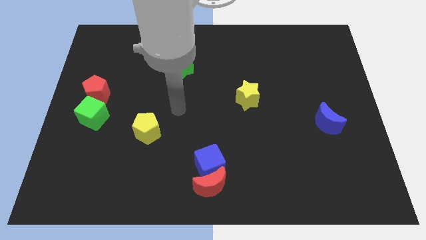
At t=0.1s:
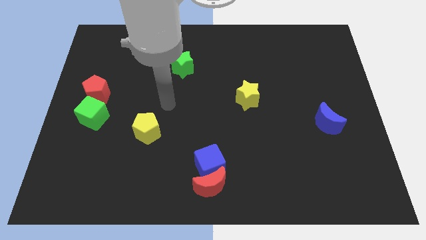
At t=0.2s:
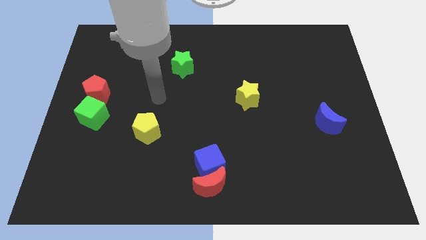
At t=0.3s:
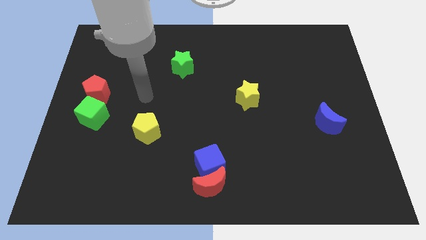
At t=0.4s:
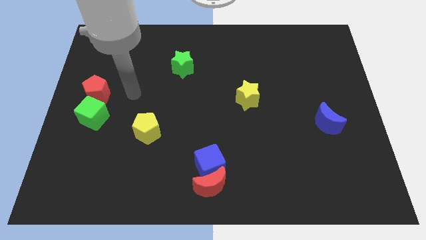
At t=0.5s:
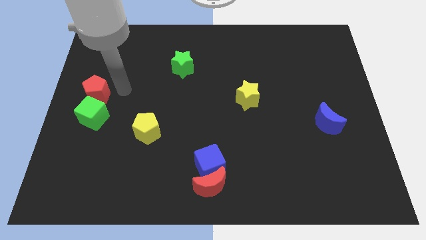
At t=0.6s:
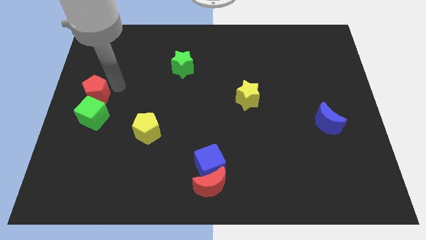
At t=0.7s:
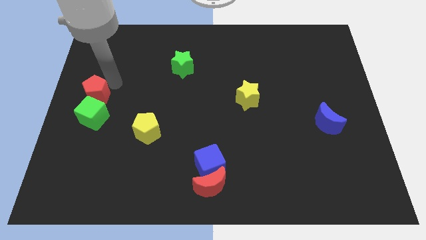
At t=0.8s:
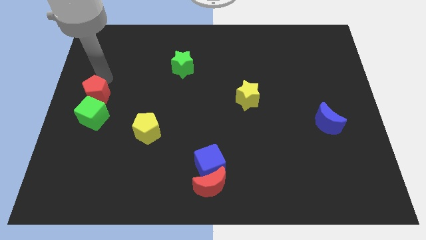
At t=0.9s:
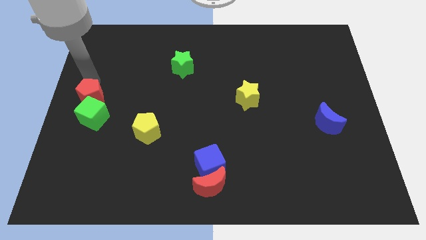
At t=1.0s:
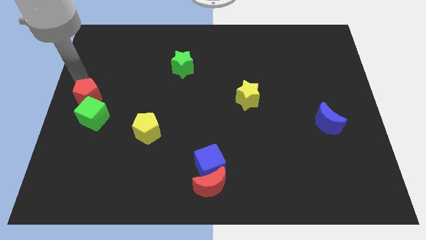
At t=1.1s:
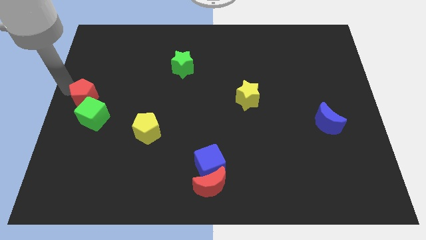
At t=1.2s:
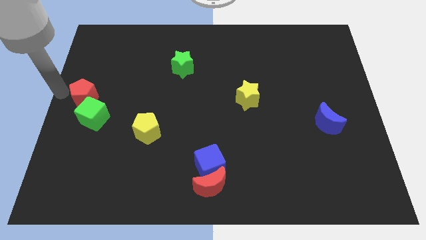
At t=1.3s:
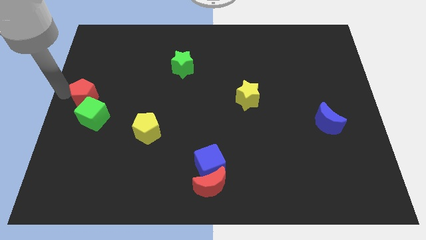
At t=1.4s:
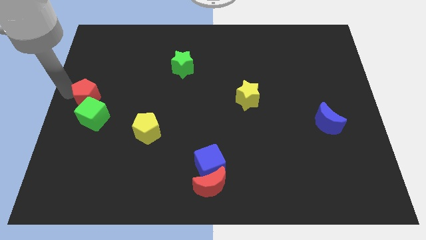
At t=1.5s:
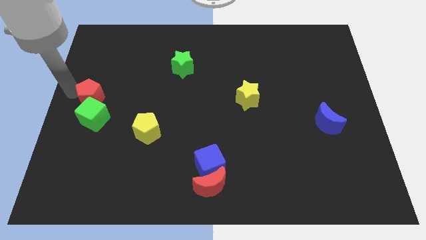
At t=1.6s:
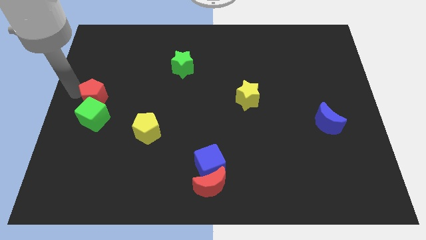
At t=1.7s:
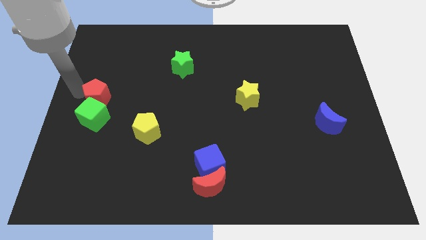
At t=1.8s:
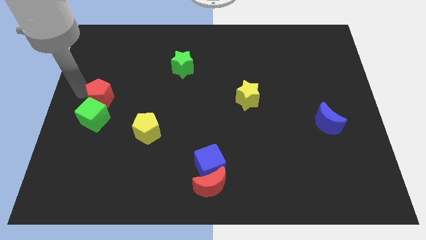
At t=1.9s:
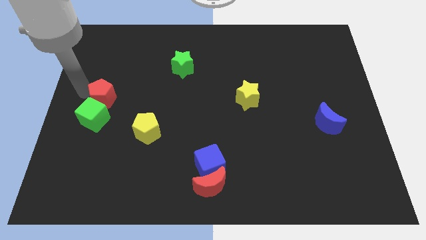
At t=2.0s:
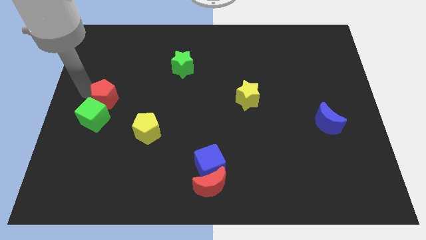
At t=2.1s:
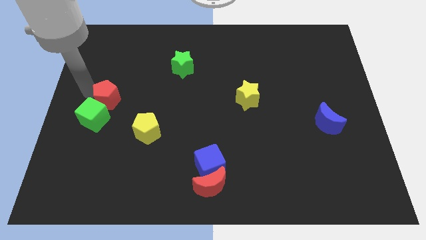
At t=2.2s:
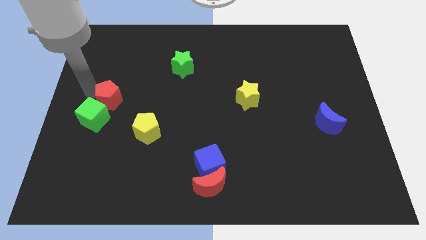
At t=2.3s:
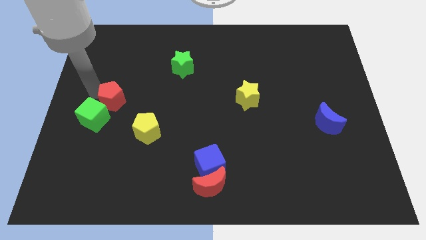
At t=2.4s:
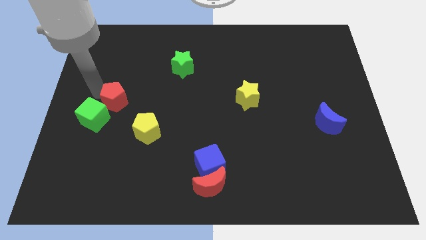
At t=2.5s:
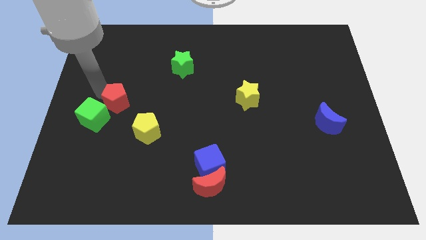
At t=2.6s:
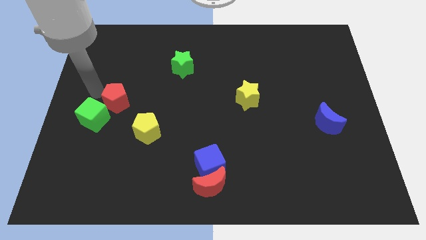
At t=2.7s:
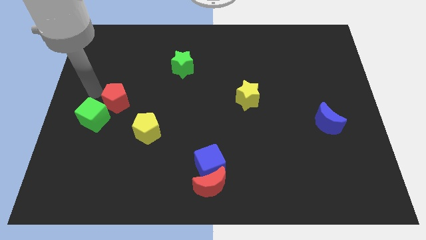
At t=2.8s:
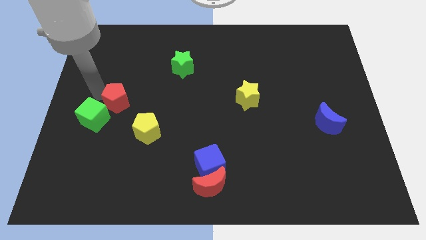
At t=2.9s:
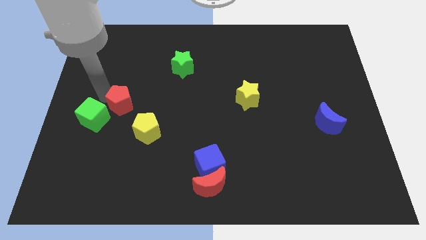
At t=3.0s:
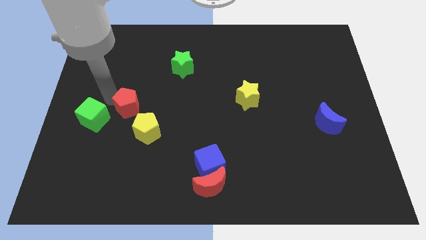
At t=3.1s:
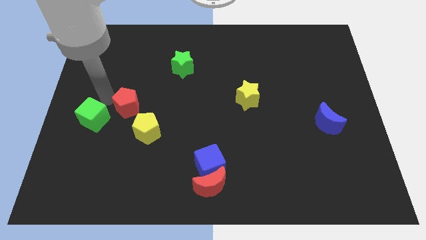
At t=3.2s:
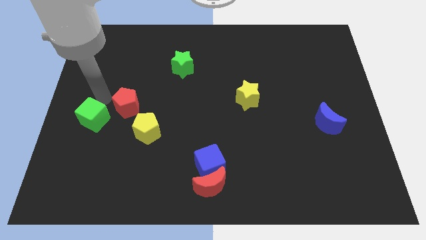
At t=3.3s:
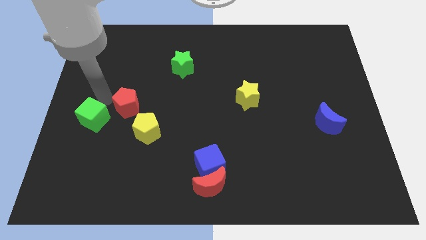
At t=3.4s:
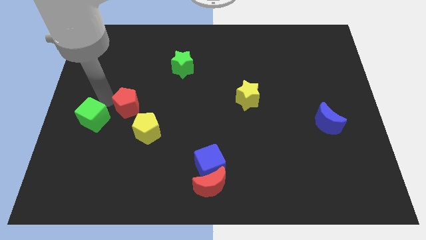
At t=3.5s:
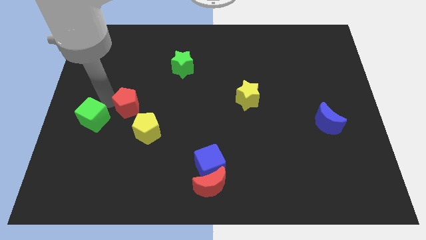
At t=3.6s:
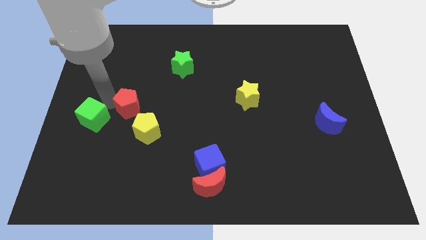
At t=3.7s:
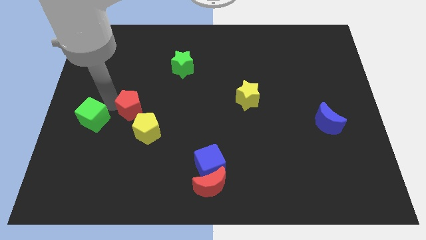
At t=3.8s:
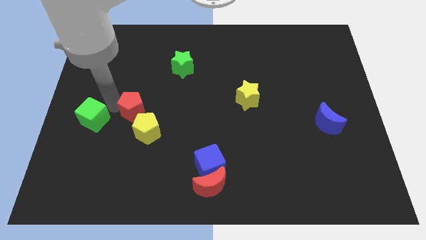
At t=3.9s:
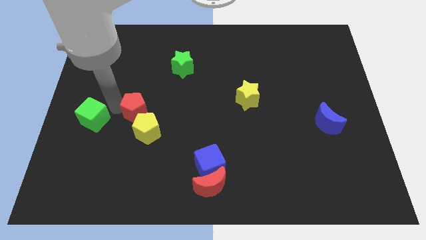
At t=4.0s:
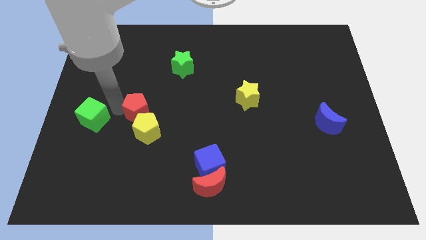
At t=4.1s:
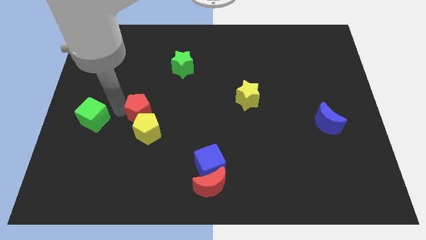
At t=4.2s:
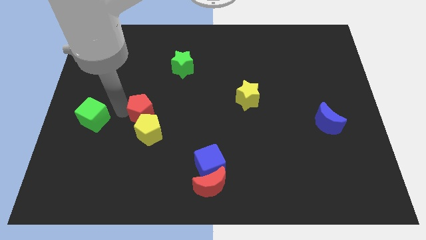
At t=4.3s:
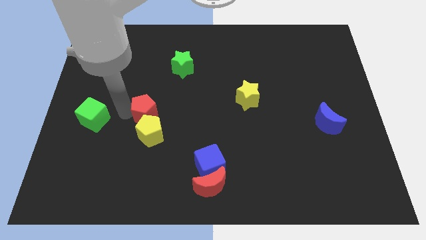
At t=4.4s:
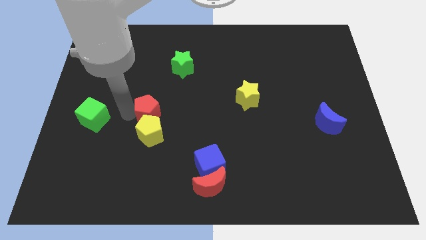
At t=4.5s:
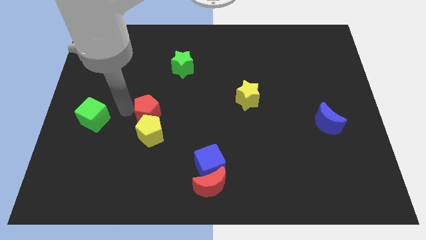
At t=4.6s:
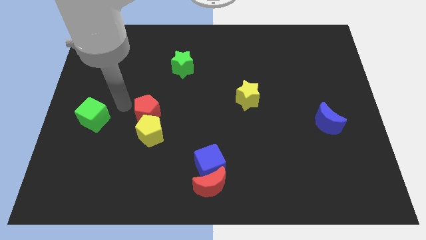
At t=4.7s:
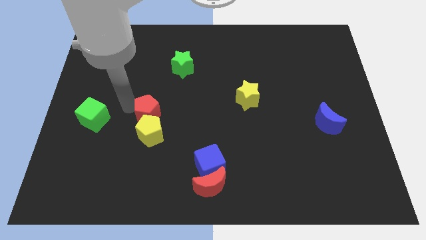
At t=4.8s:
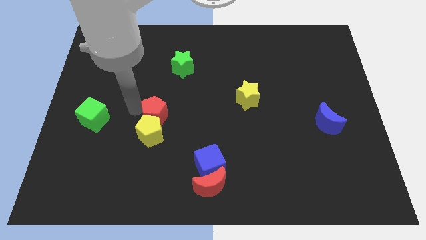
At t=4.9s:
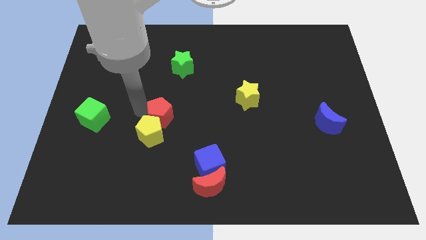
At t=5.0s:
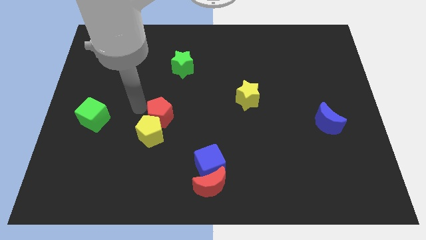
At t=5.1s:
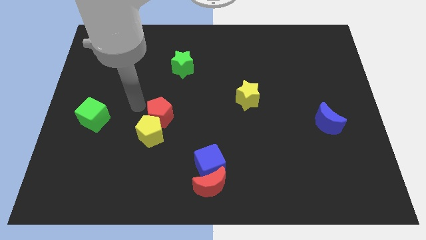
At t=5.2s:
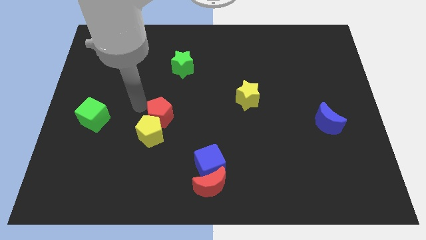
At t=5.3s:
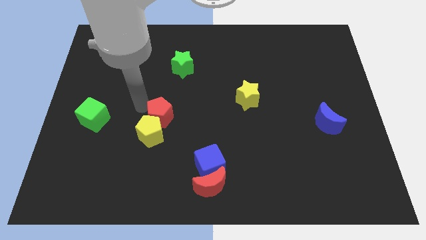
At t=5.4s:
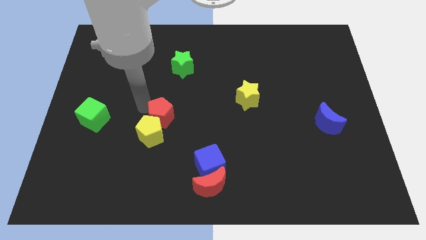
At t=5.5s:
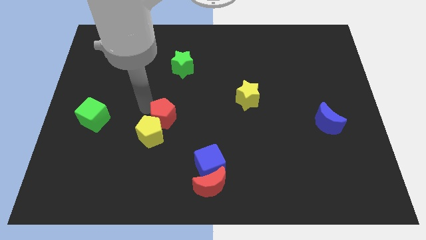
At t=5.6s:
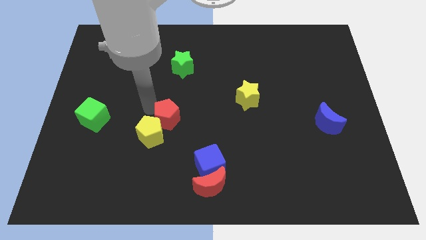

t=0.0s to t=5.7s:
push the red pentagon just right of the yellow pentagon

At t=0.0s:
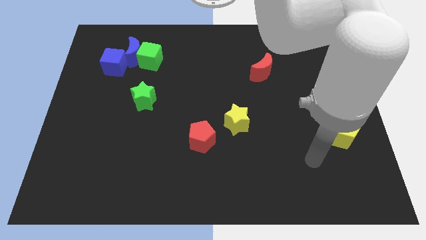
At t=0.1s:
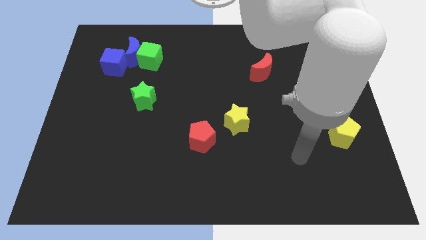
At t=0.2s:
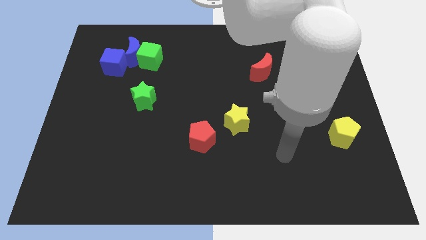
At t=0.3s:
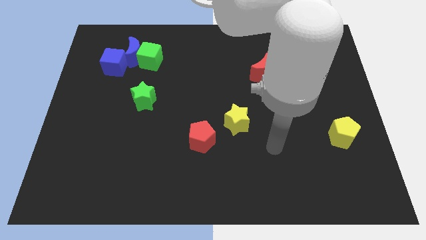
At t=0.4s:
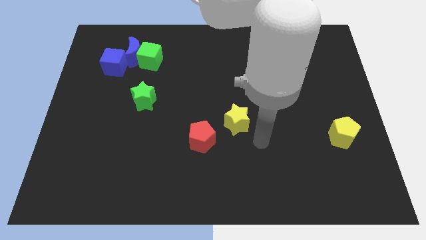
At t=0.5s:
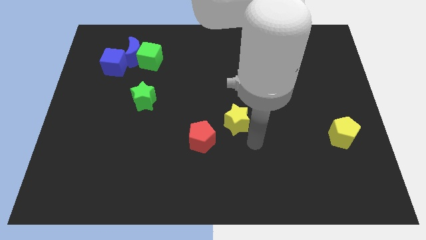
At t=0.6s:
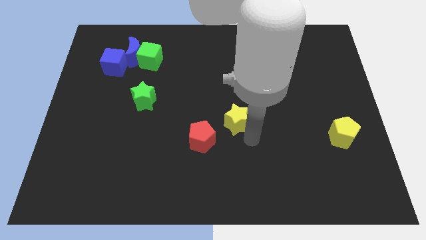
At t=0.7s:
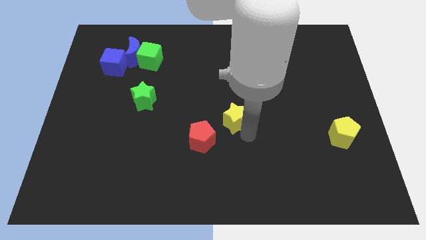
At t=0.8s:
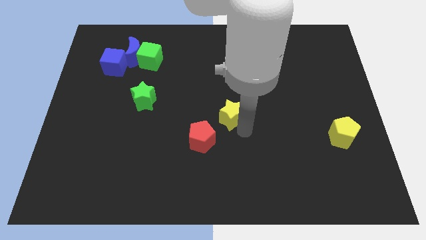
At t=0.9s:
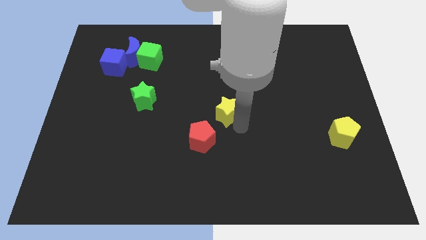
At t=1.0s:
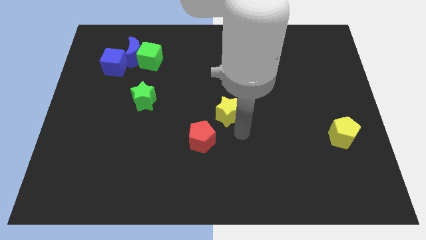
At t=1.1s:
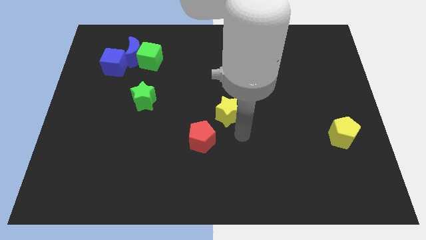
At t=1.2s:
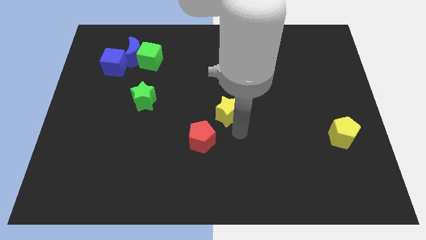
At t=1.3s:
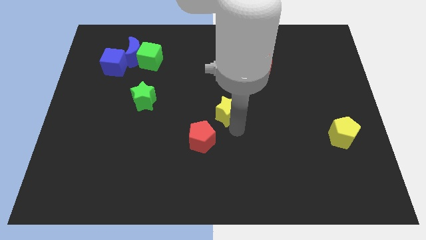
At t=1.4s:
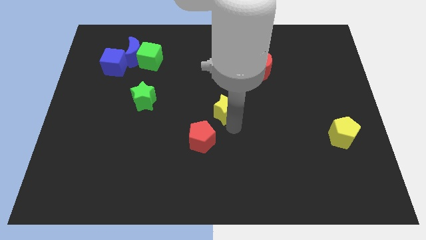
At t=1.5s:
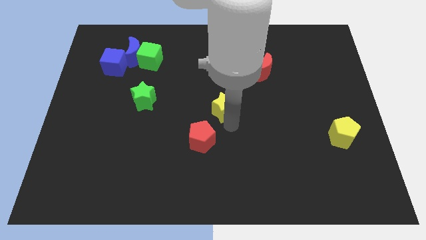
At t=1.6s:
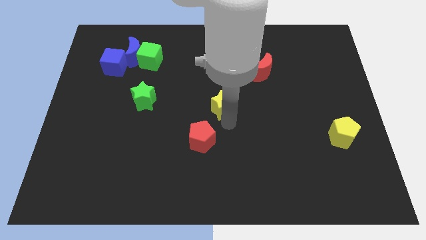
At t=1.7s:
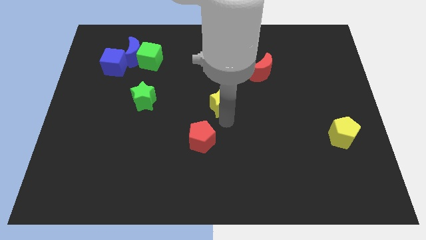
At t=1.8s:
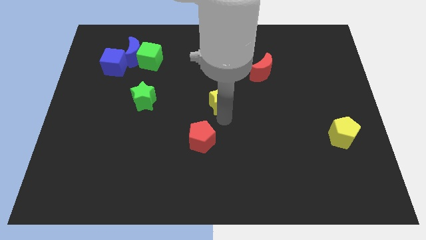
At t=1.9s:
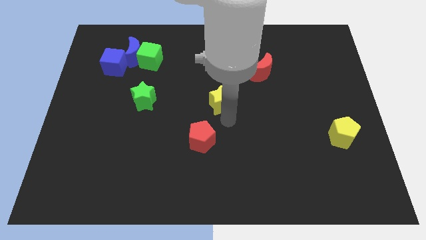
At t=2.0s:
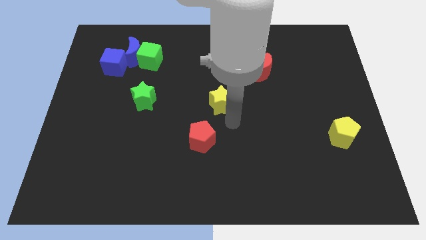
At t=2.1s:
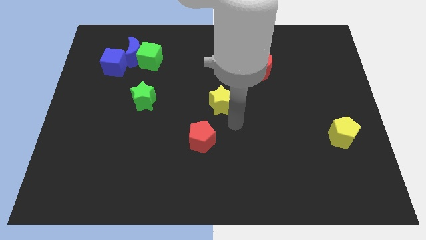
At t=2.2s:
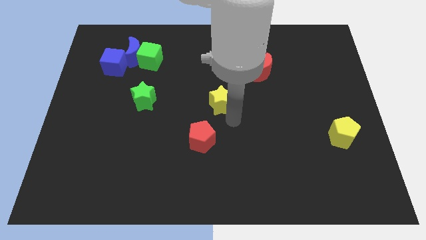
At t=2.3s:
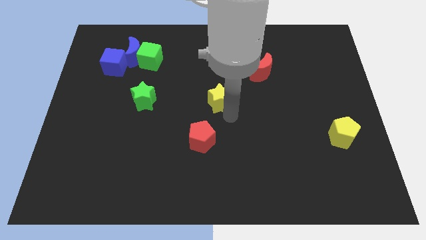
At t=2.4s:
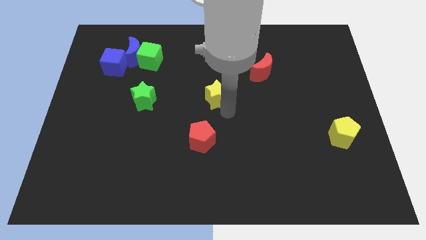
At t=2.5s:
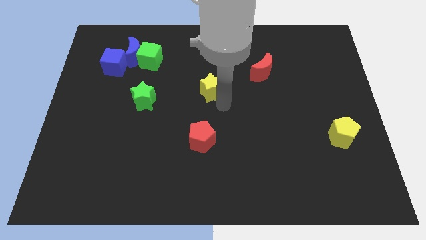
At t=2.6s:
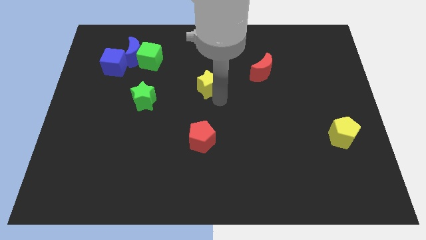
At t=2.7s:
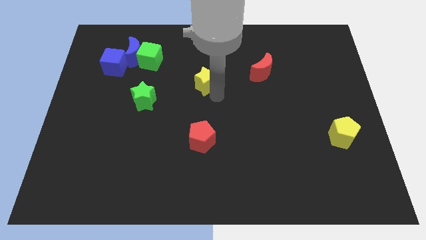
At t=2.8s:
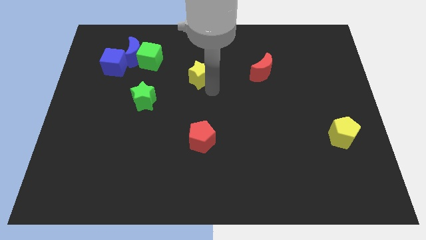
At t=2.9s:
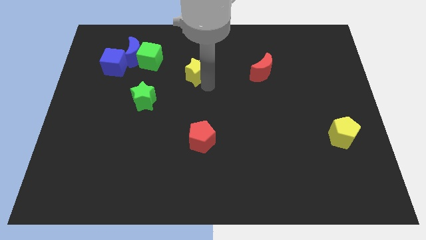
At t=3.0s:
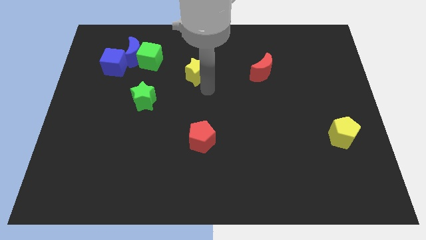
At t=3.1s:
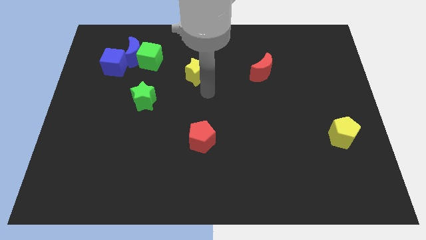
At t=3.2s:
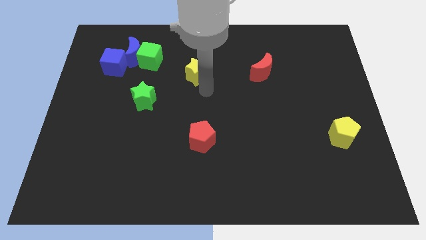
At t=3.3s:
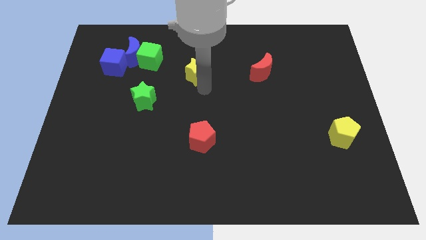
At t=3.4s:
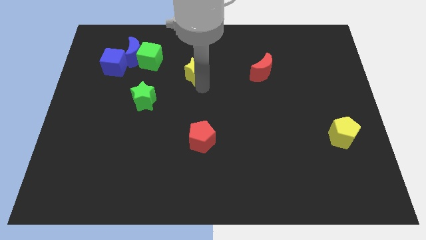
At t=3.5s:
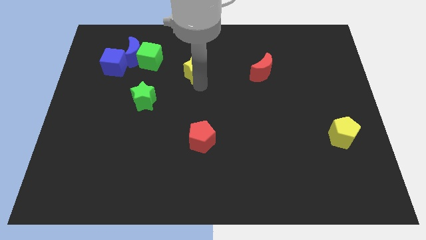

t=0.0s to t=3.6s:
push the yellow star just right of the green cube
